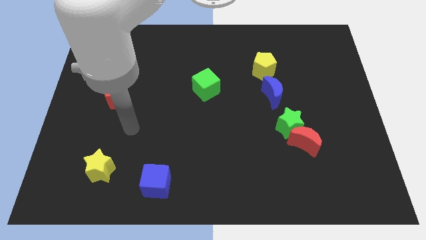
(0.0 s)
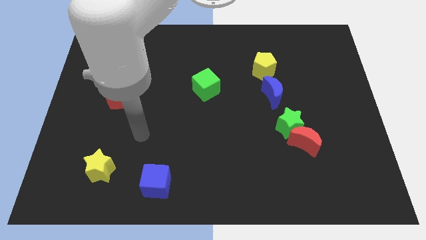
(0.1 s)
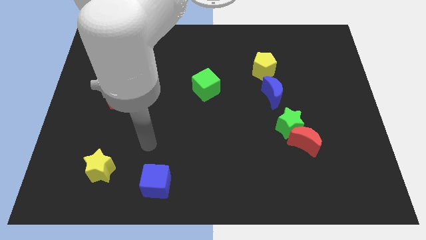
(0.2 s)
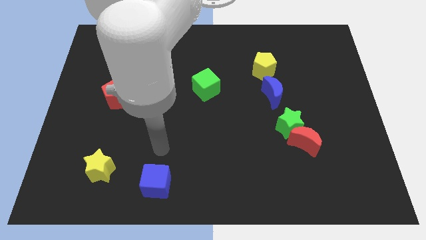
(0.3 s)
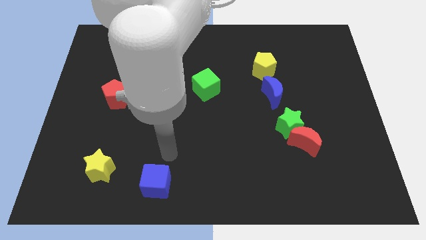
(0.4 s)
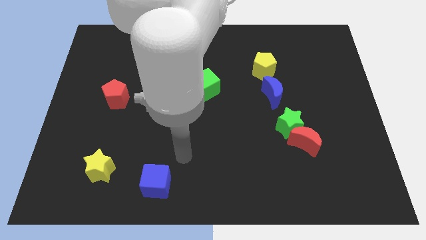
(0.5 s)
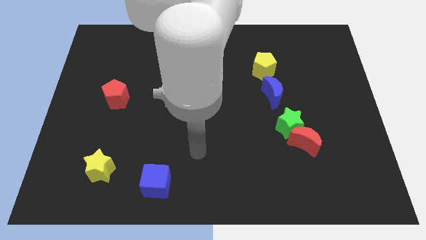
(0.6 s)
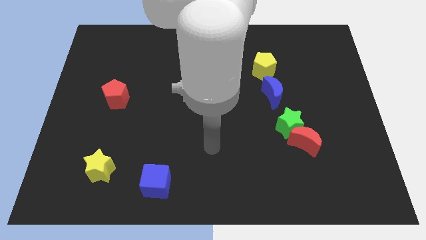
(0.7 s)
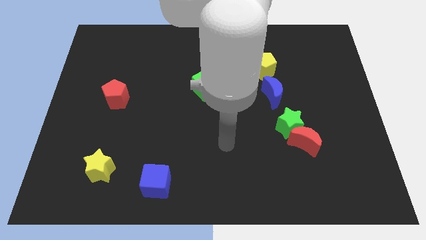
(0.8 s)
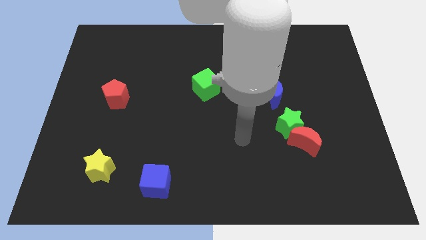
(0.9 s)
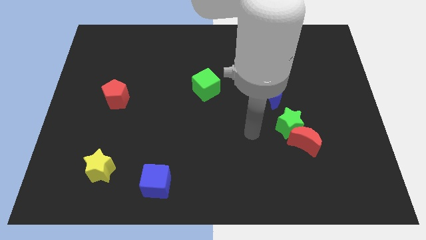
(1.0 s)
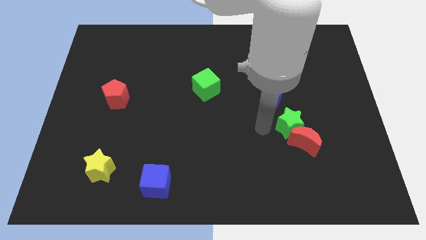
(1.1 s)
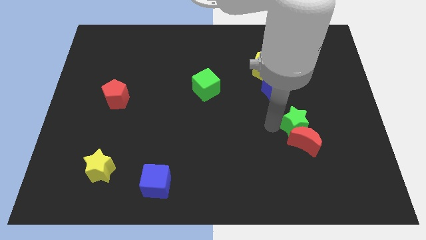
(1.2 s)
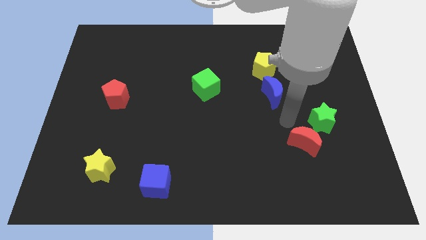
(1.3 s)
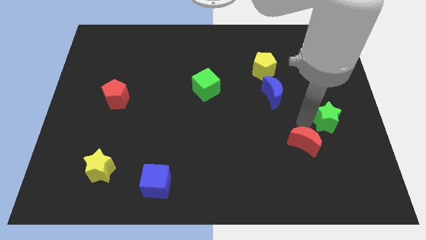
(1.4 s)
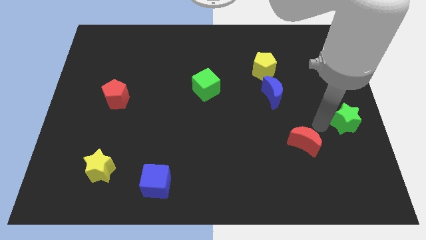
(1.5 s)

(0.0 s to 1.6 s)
pull the red moon apart from the green star

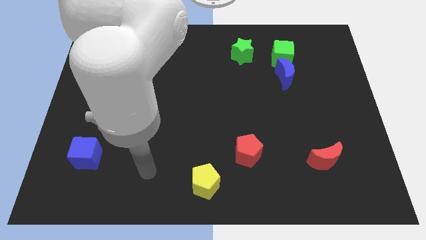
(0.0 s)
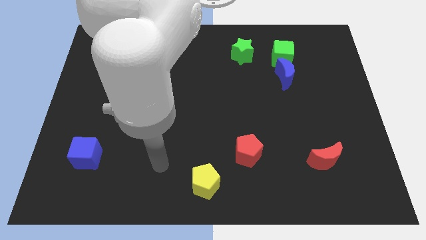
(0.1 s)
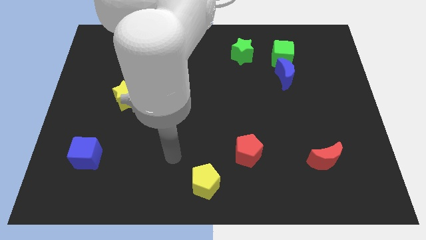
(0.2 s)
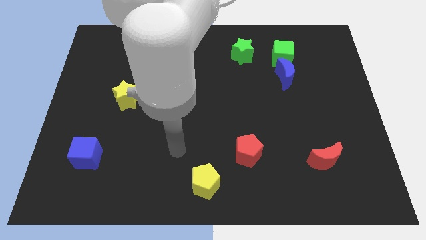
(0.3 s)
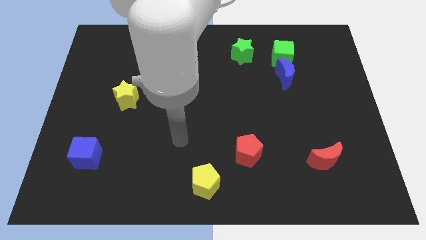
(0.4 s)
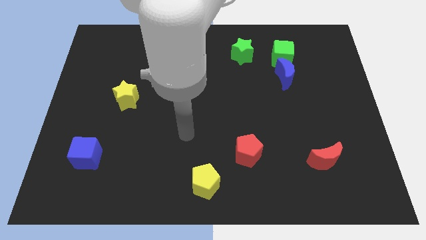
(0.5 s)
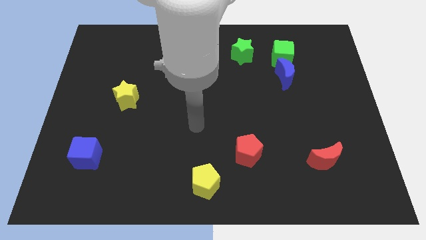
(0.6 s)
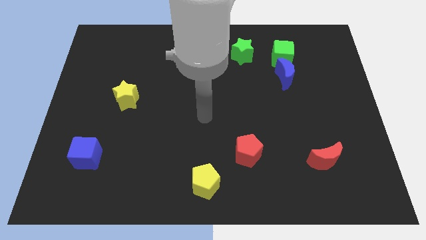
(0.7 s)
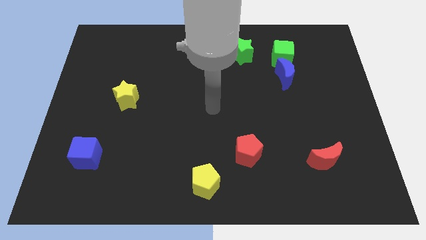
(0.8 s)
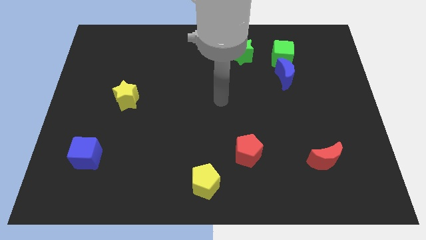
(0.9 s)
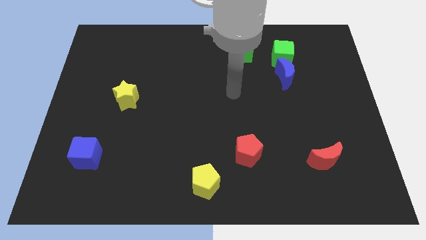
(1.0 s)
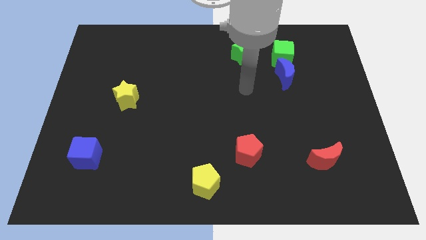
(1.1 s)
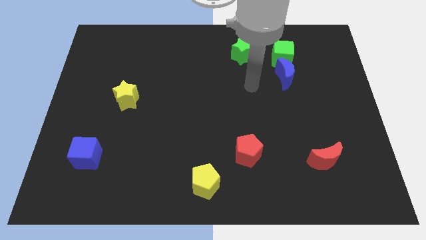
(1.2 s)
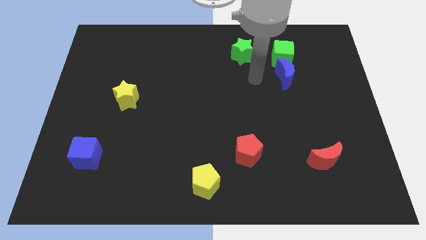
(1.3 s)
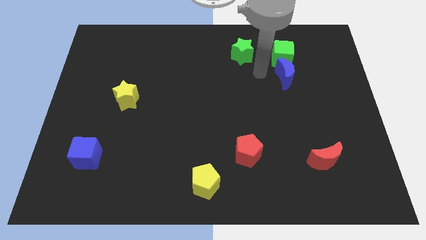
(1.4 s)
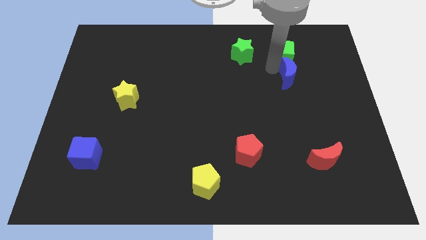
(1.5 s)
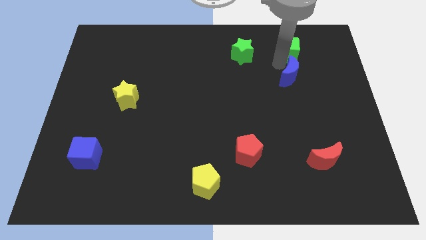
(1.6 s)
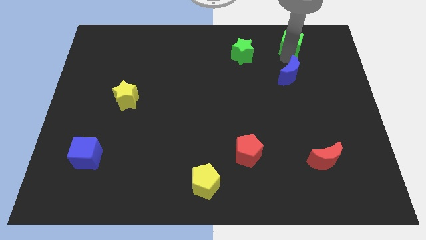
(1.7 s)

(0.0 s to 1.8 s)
pull the blue moon apart from the green cube

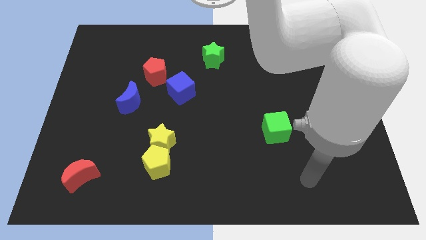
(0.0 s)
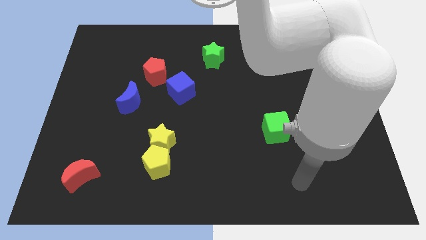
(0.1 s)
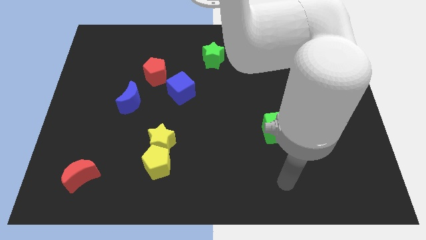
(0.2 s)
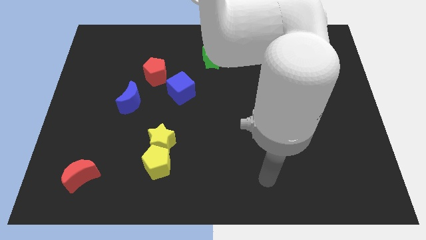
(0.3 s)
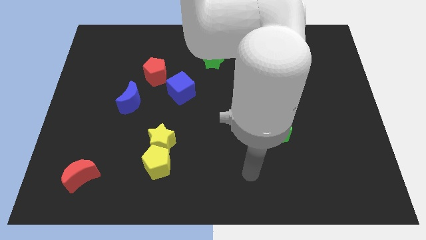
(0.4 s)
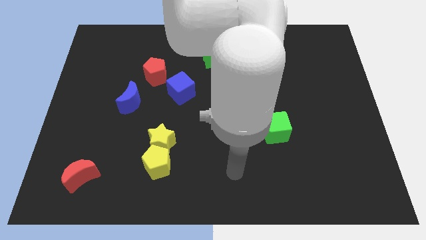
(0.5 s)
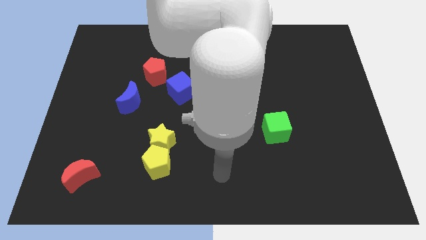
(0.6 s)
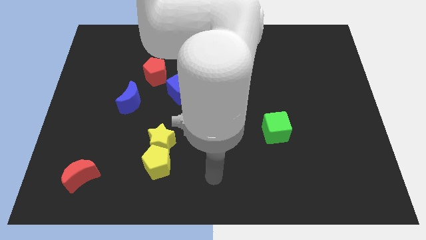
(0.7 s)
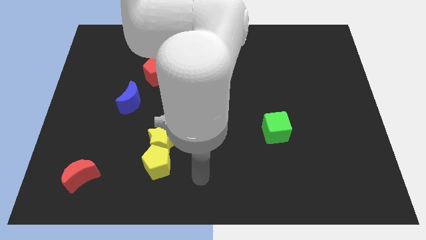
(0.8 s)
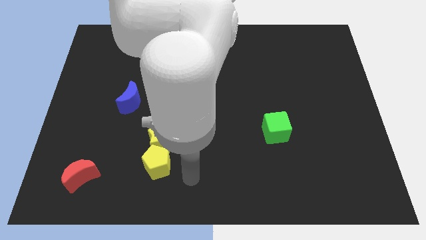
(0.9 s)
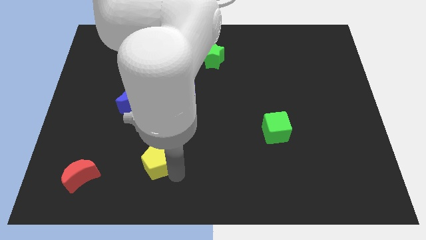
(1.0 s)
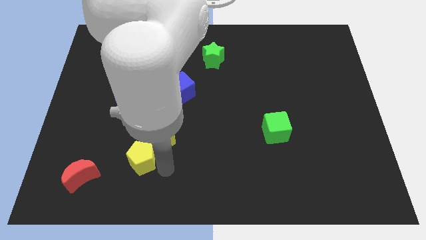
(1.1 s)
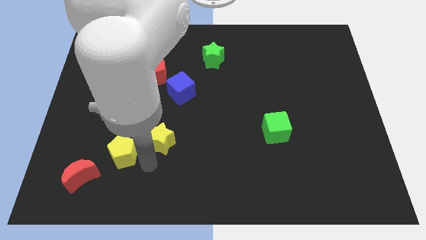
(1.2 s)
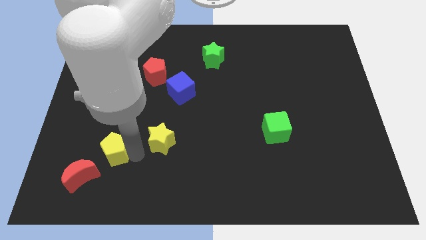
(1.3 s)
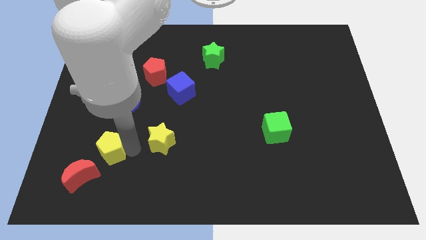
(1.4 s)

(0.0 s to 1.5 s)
move the yellow star away from the yellow pentagon

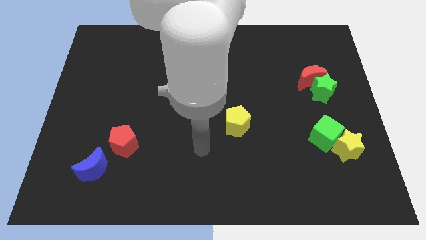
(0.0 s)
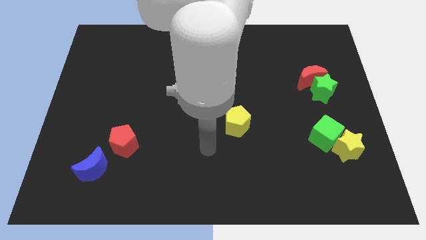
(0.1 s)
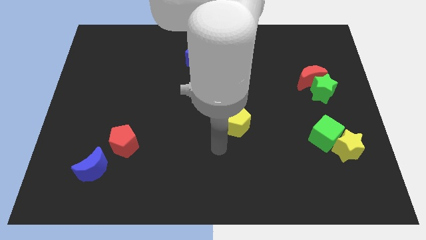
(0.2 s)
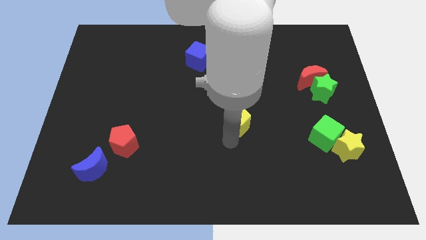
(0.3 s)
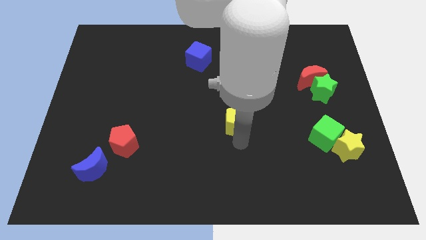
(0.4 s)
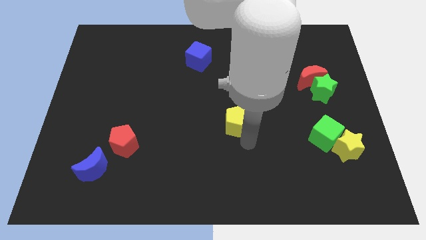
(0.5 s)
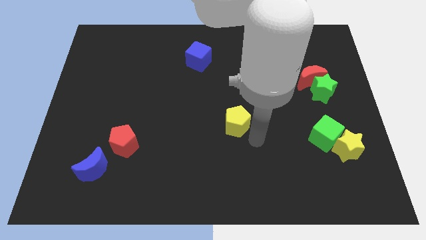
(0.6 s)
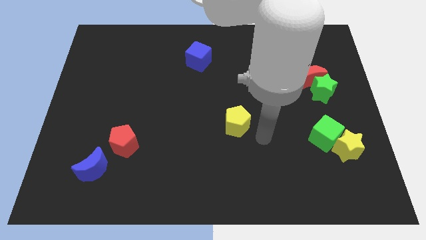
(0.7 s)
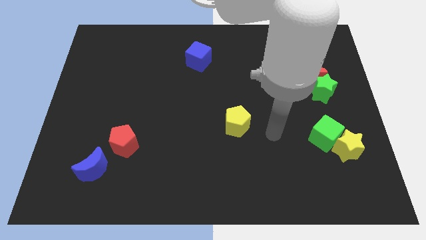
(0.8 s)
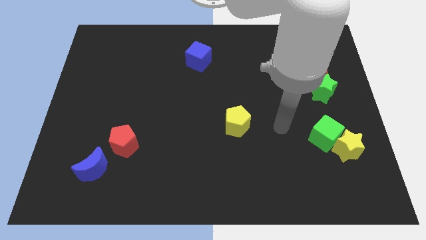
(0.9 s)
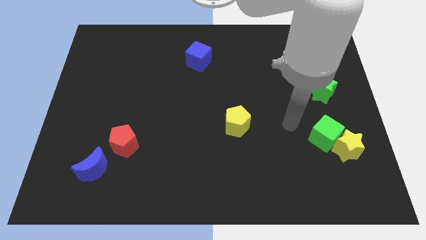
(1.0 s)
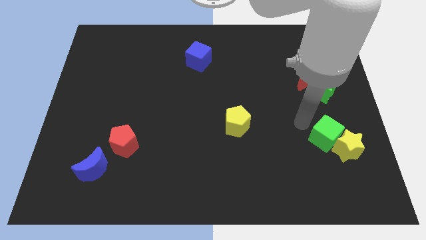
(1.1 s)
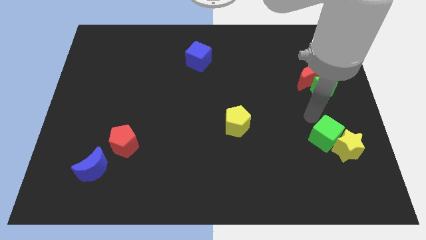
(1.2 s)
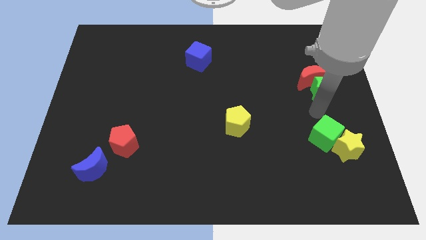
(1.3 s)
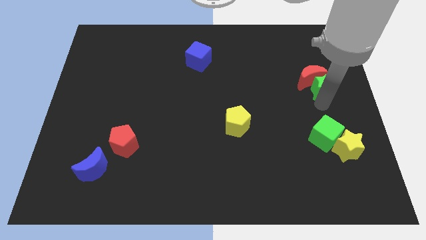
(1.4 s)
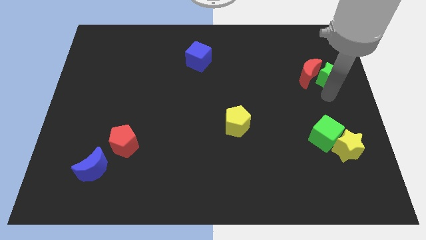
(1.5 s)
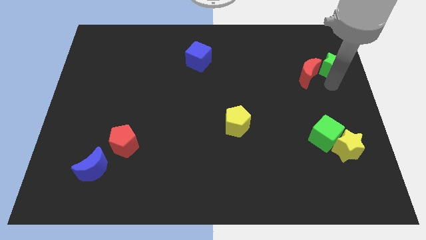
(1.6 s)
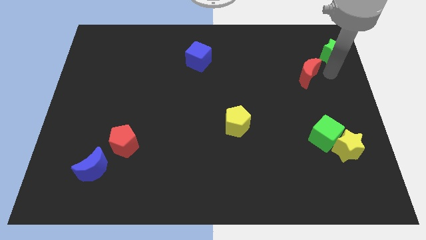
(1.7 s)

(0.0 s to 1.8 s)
separate the red moon from the green star

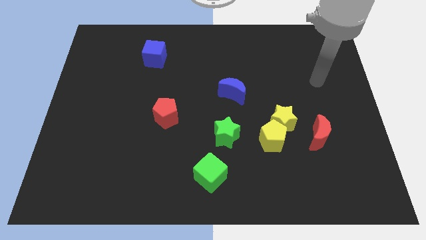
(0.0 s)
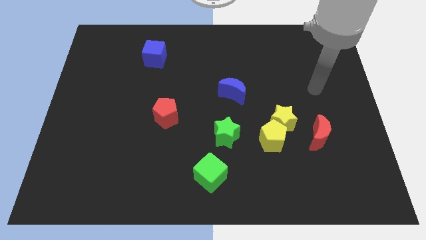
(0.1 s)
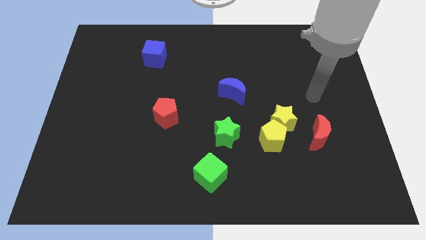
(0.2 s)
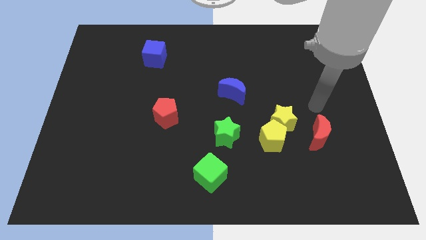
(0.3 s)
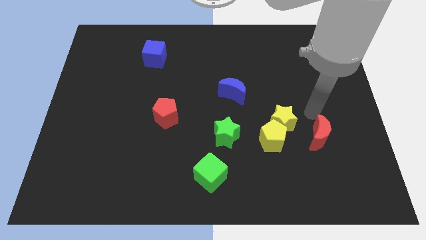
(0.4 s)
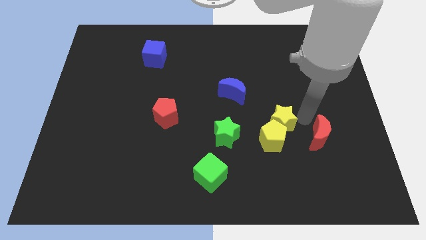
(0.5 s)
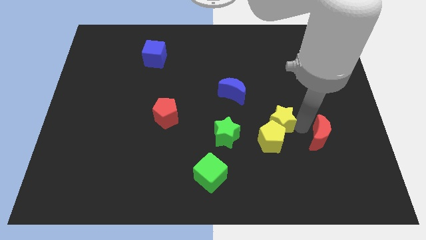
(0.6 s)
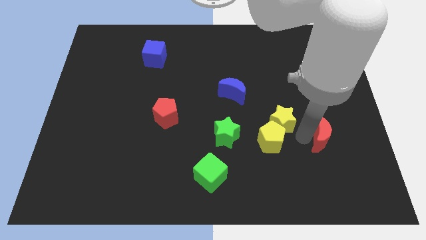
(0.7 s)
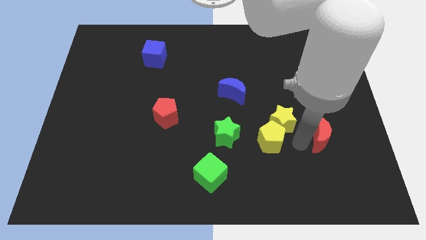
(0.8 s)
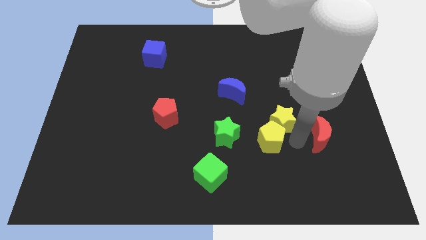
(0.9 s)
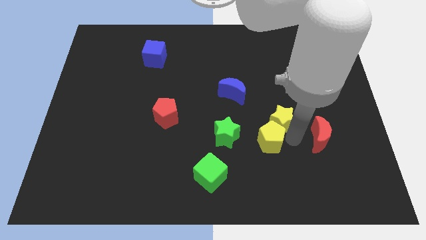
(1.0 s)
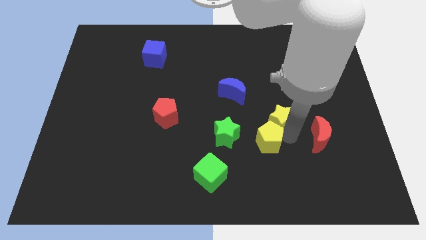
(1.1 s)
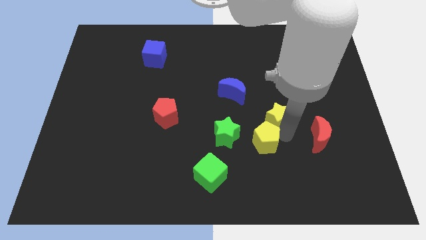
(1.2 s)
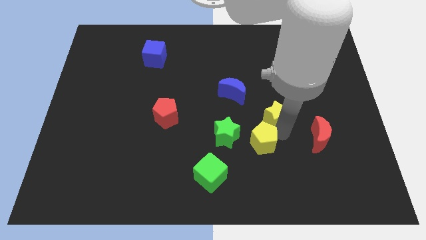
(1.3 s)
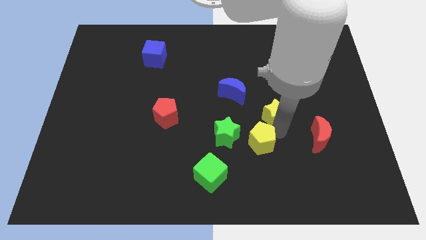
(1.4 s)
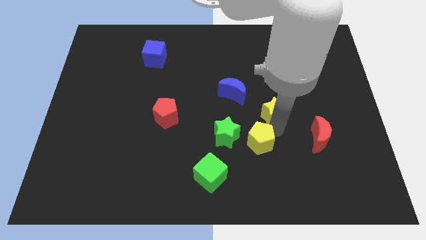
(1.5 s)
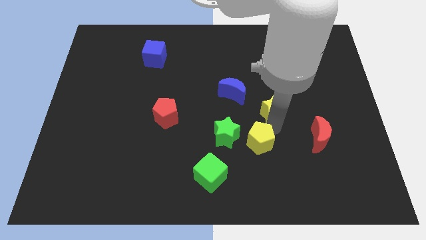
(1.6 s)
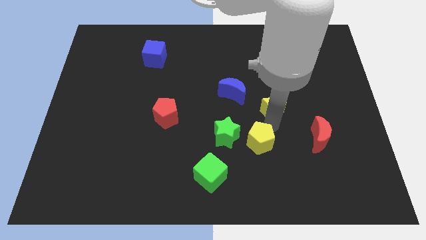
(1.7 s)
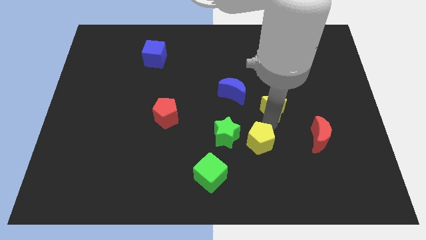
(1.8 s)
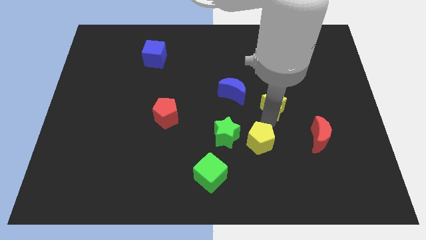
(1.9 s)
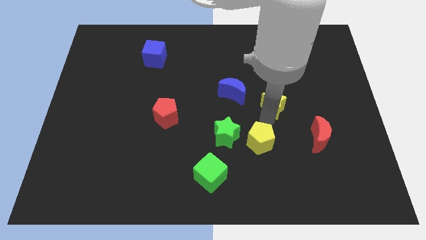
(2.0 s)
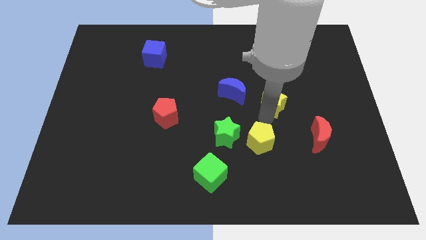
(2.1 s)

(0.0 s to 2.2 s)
separate the yellow star from the yellow pentagon and red moon

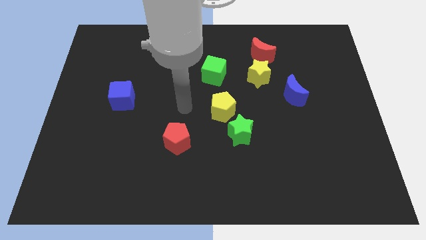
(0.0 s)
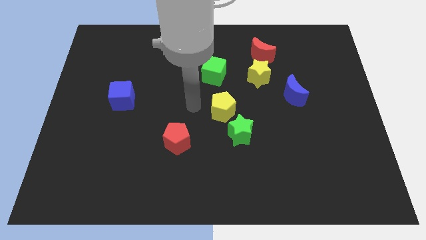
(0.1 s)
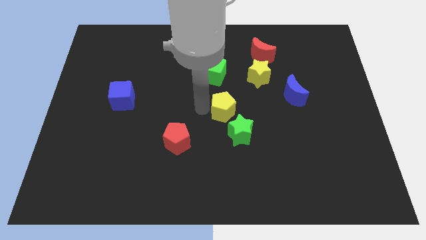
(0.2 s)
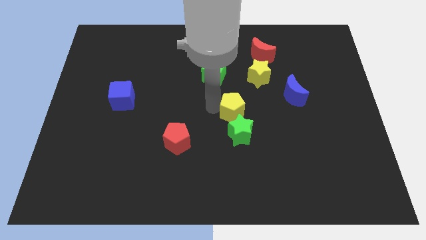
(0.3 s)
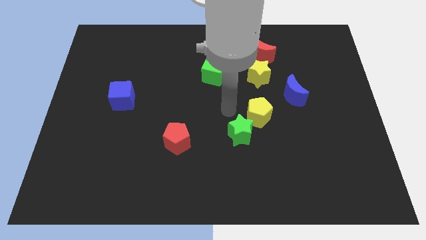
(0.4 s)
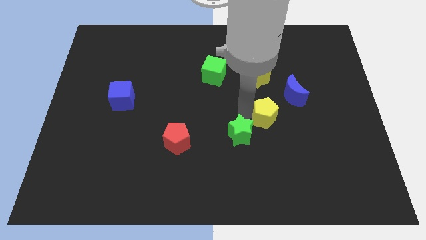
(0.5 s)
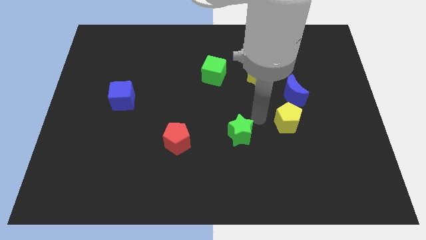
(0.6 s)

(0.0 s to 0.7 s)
separate the green star from the yellow pentagon
